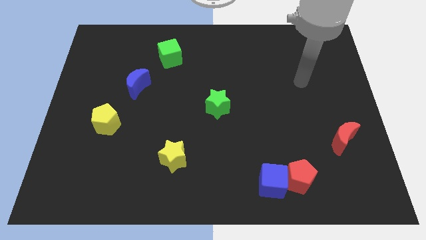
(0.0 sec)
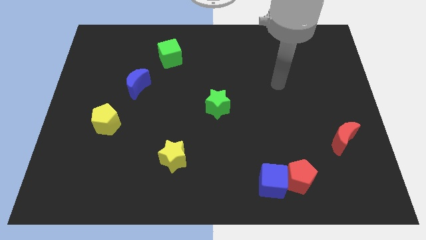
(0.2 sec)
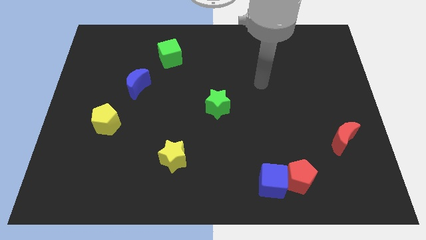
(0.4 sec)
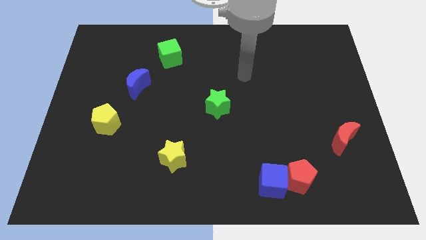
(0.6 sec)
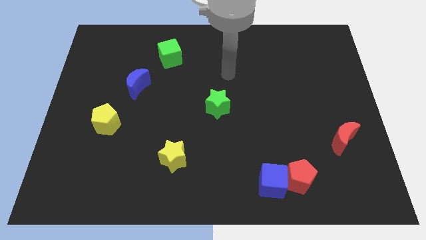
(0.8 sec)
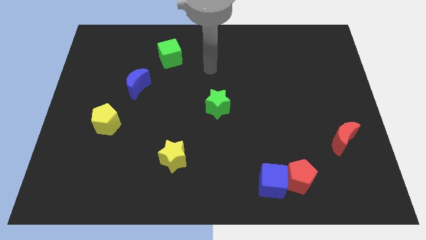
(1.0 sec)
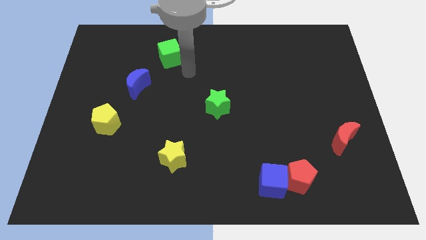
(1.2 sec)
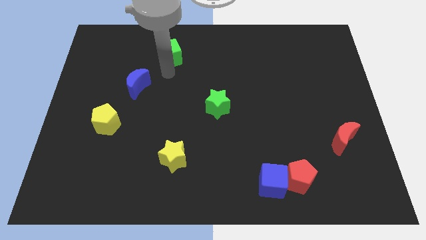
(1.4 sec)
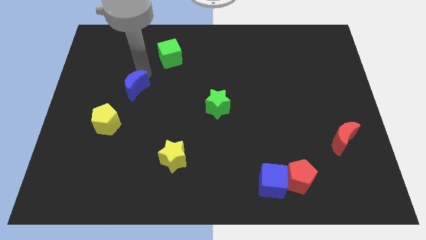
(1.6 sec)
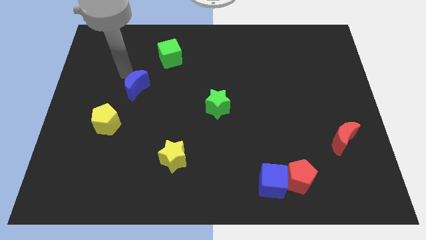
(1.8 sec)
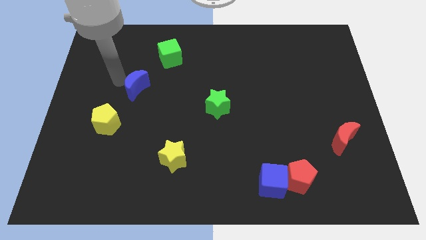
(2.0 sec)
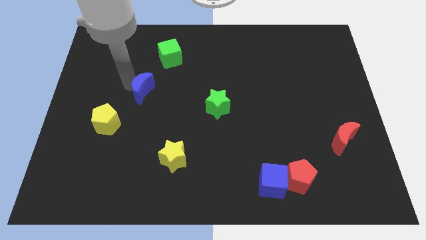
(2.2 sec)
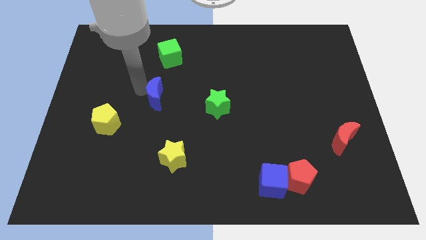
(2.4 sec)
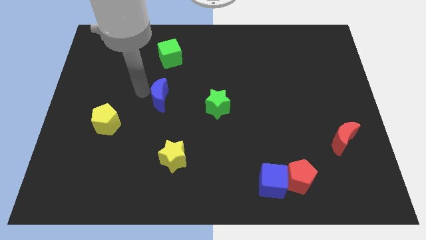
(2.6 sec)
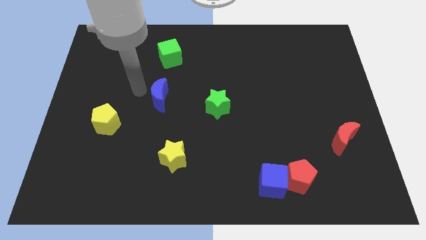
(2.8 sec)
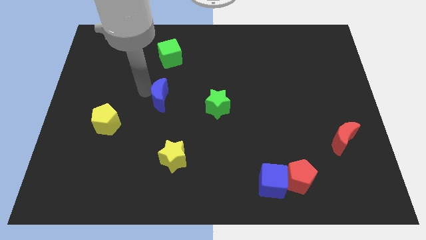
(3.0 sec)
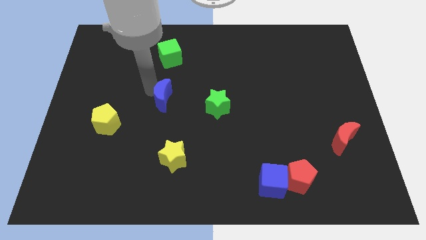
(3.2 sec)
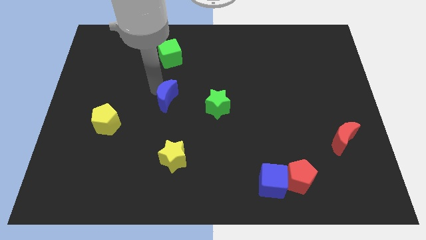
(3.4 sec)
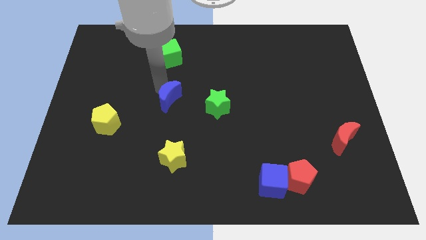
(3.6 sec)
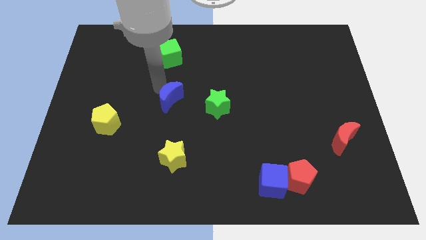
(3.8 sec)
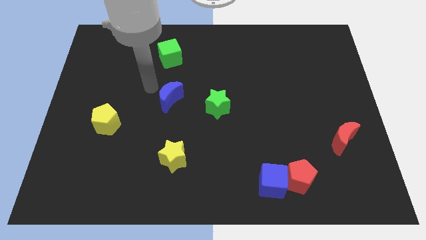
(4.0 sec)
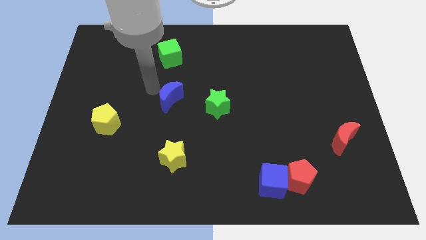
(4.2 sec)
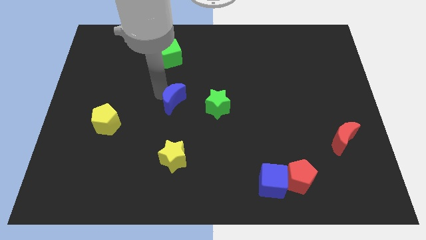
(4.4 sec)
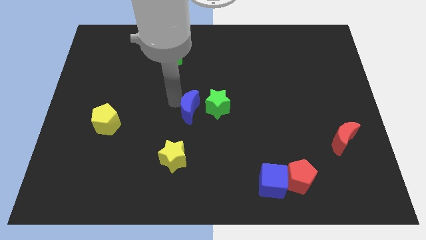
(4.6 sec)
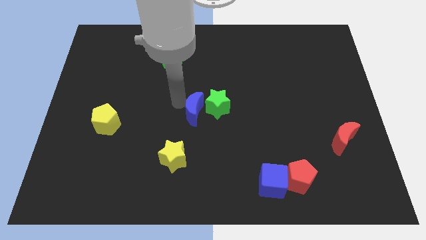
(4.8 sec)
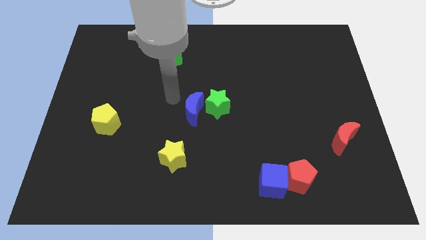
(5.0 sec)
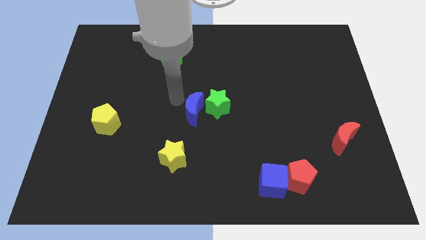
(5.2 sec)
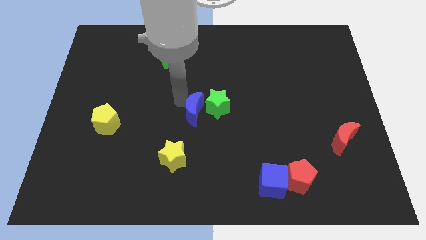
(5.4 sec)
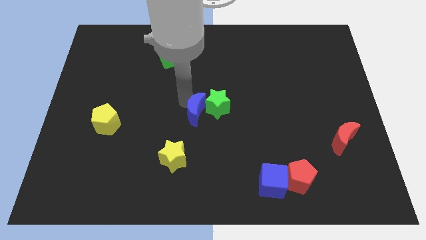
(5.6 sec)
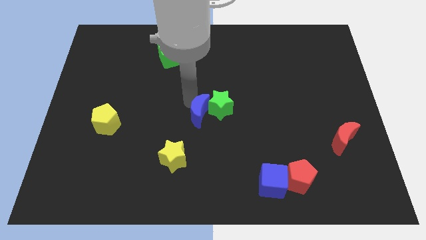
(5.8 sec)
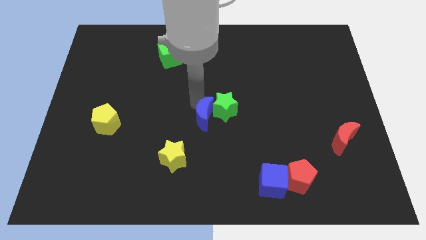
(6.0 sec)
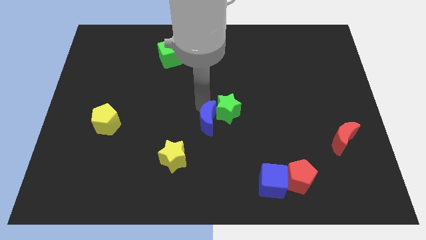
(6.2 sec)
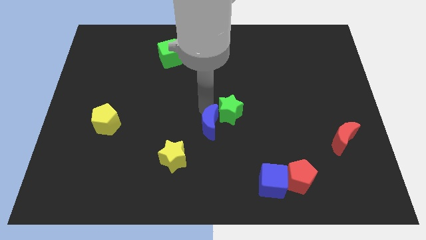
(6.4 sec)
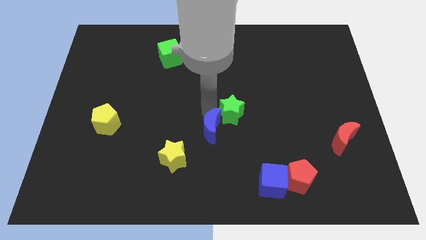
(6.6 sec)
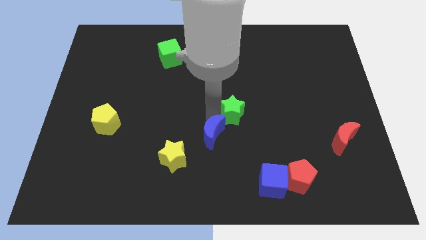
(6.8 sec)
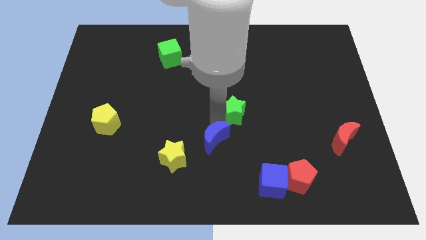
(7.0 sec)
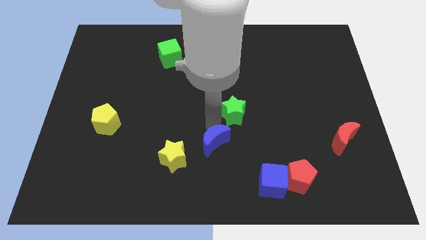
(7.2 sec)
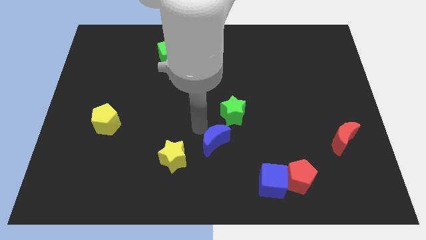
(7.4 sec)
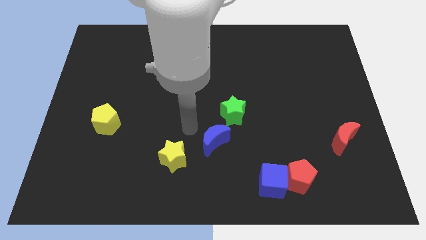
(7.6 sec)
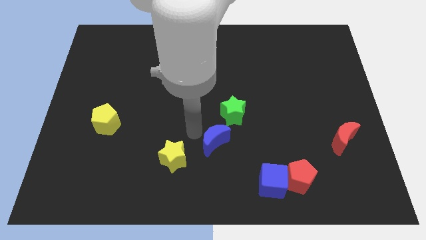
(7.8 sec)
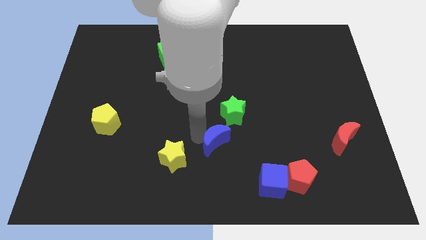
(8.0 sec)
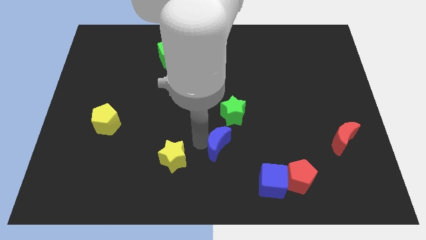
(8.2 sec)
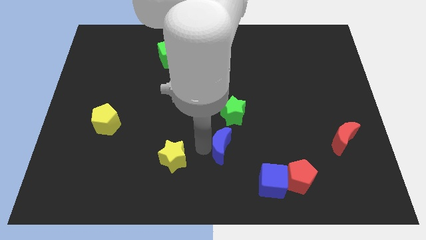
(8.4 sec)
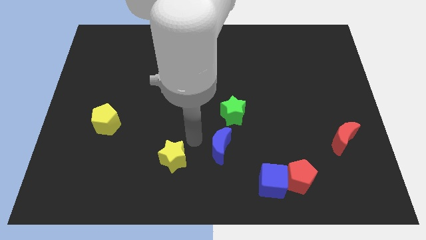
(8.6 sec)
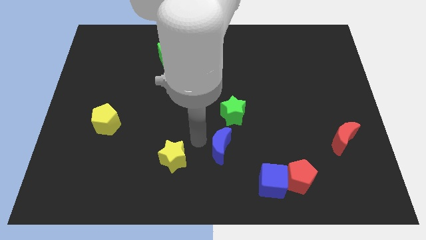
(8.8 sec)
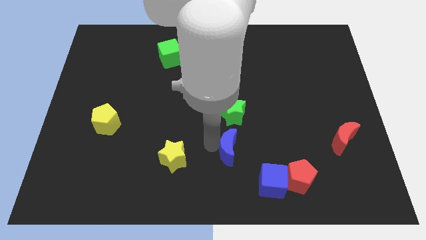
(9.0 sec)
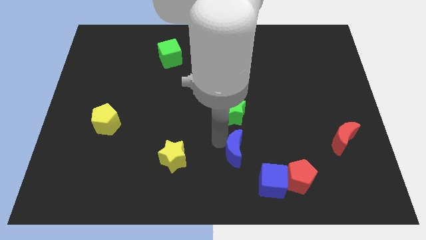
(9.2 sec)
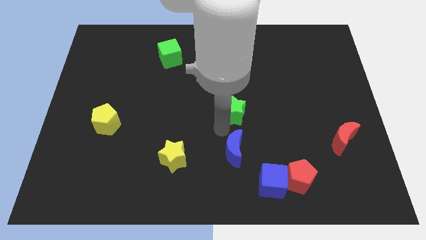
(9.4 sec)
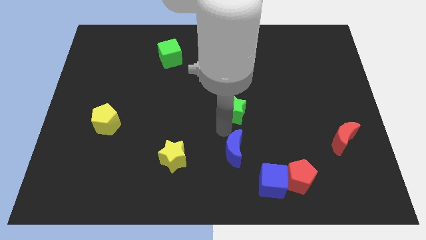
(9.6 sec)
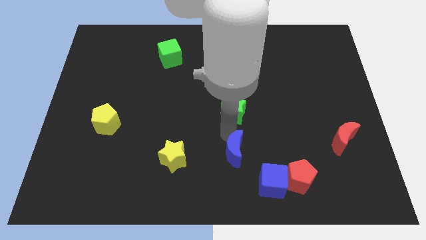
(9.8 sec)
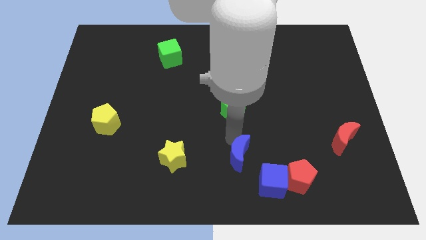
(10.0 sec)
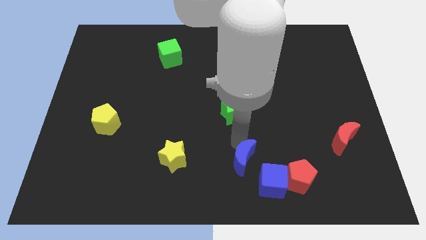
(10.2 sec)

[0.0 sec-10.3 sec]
push the blue moon just left of the red pentagon

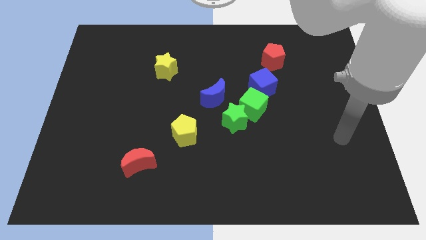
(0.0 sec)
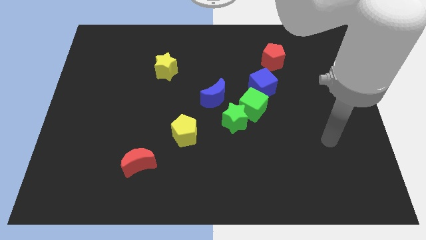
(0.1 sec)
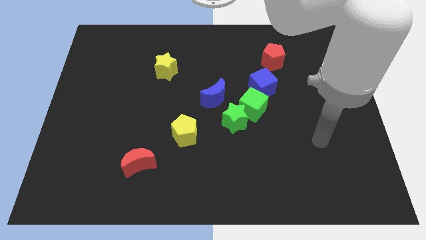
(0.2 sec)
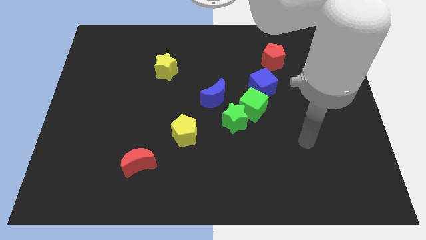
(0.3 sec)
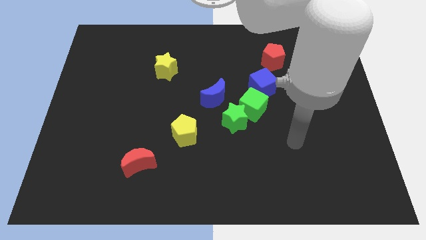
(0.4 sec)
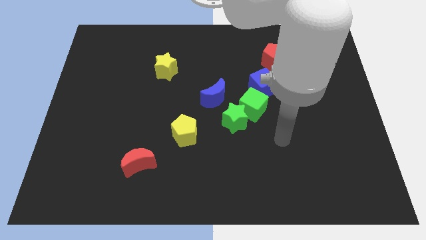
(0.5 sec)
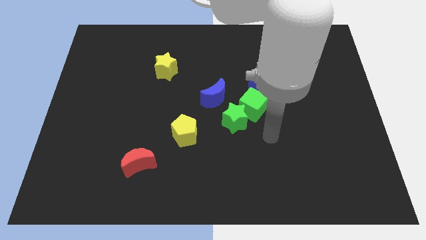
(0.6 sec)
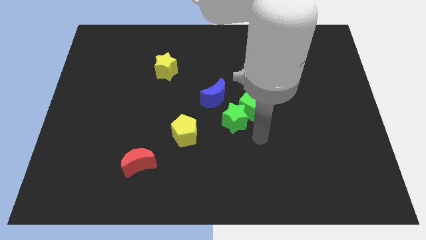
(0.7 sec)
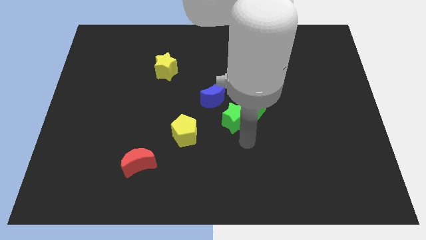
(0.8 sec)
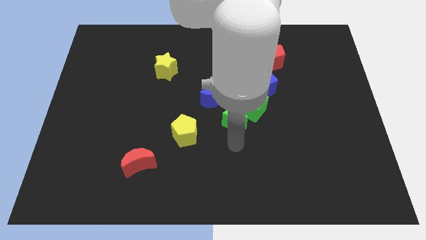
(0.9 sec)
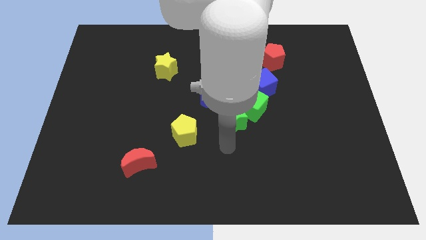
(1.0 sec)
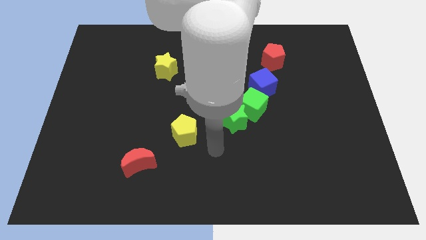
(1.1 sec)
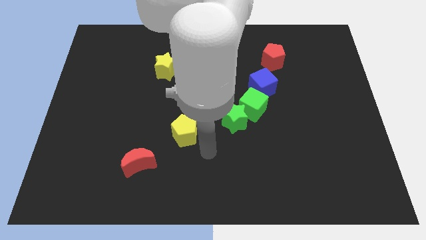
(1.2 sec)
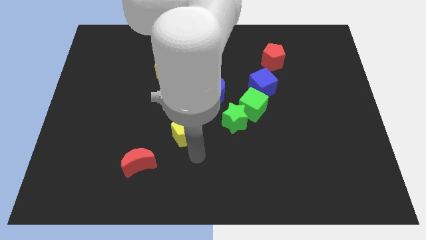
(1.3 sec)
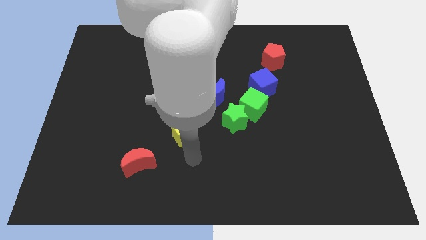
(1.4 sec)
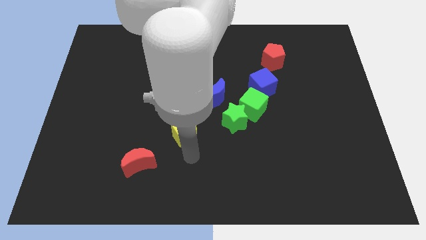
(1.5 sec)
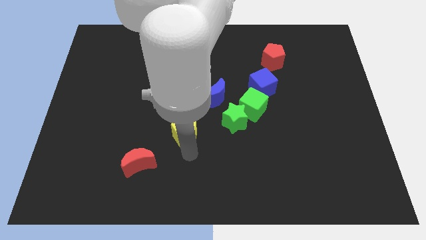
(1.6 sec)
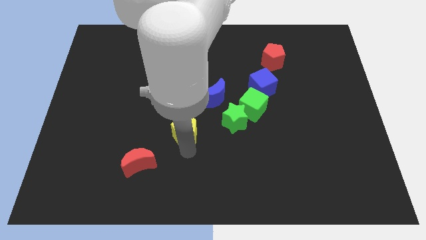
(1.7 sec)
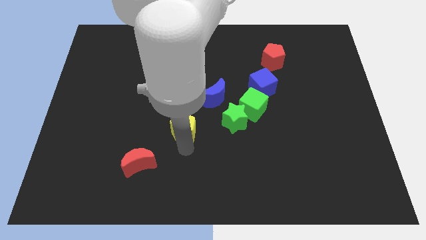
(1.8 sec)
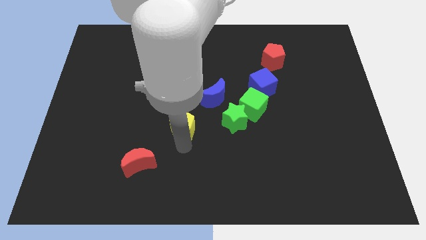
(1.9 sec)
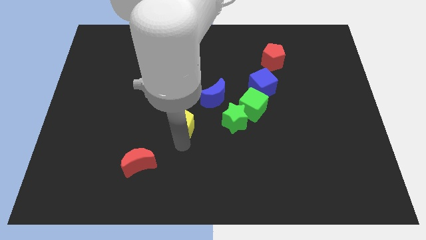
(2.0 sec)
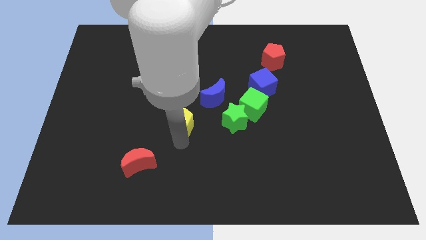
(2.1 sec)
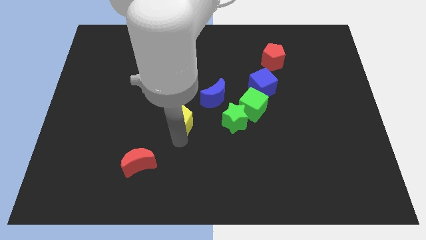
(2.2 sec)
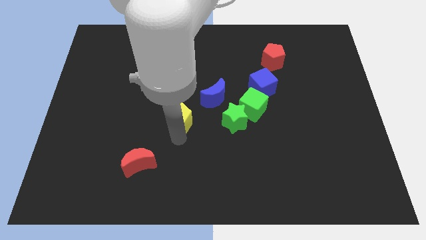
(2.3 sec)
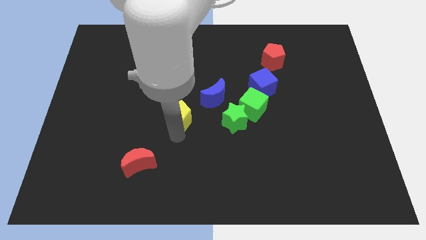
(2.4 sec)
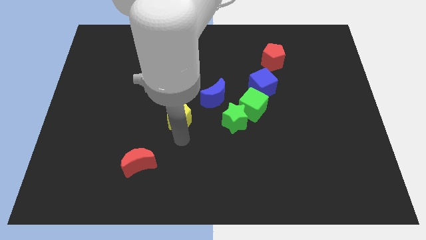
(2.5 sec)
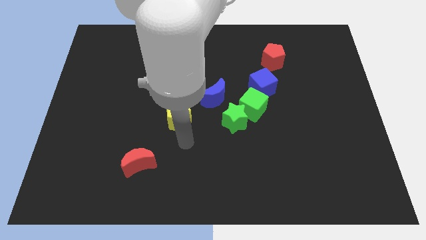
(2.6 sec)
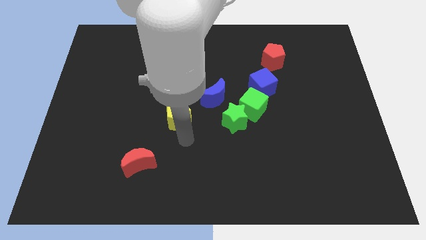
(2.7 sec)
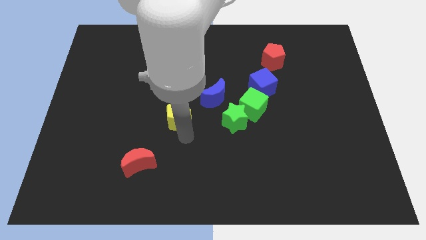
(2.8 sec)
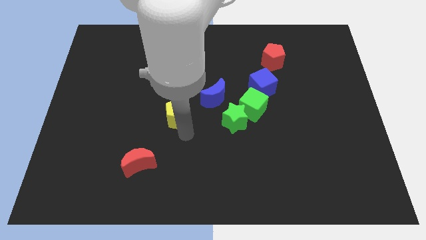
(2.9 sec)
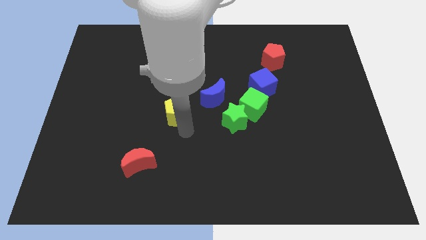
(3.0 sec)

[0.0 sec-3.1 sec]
slide the yellow pentagon to the left side of the blue moon
